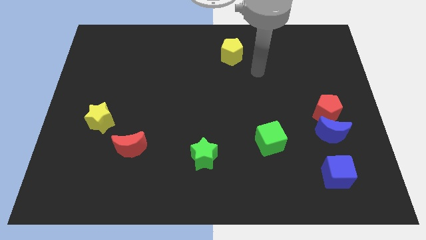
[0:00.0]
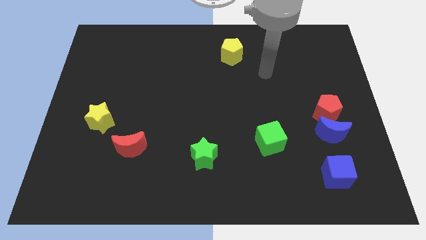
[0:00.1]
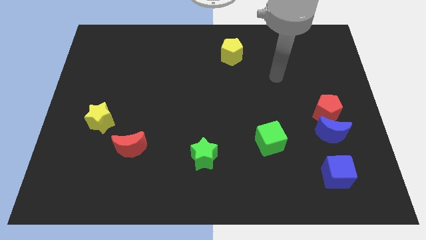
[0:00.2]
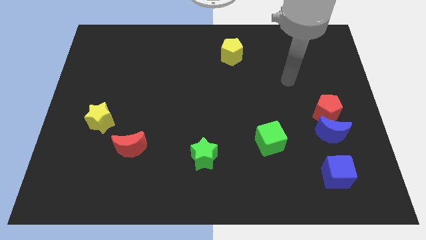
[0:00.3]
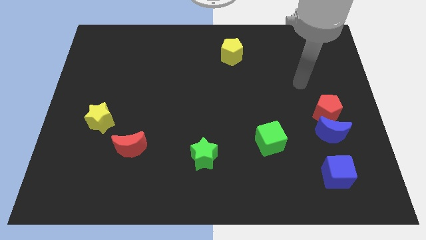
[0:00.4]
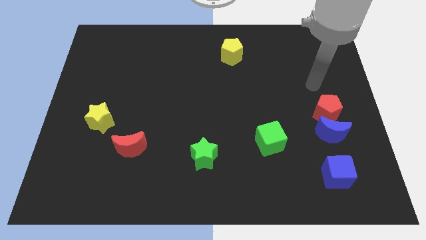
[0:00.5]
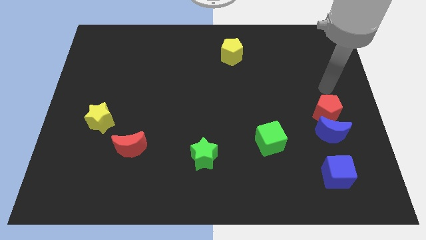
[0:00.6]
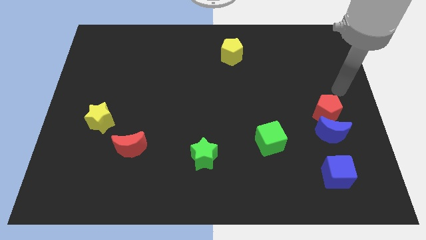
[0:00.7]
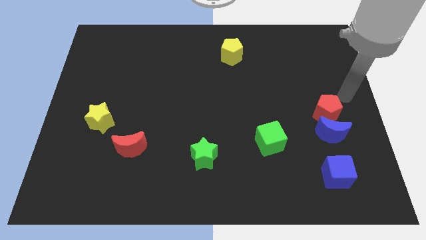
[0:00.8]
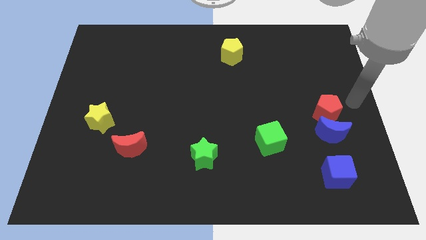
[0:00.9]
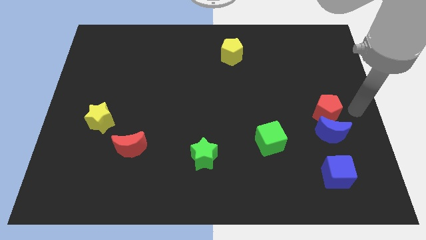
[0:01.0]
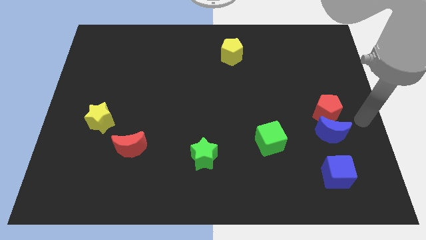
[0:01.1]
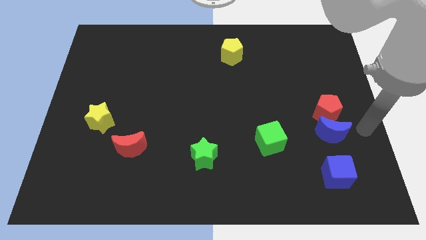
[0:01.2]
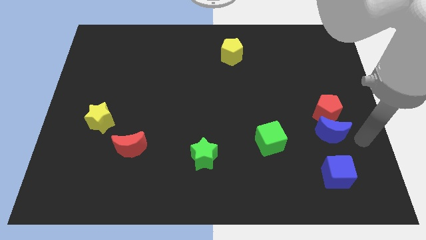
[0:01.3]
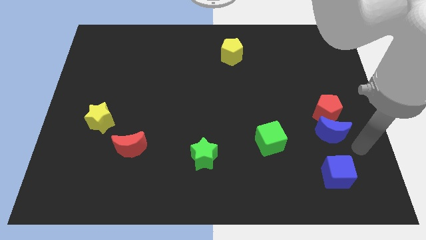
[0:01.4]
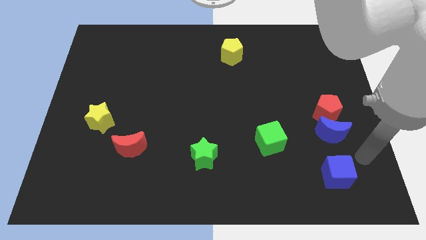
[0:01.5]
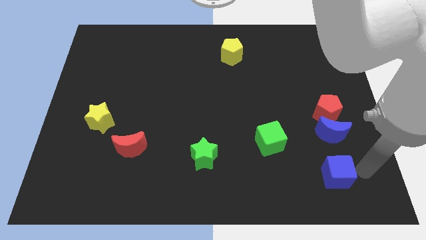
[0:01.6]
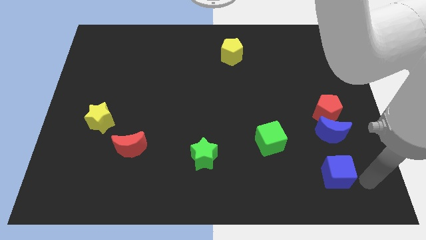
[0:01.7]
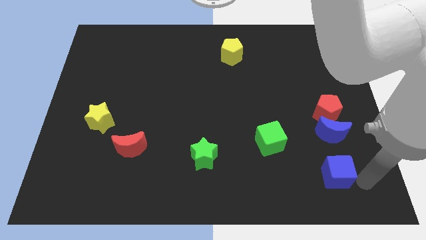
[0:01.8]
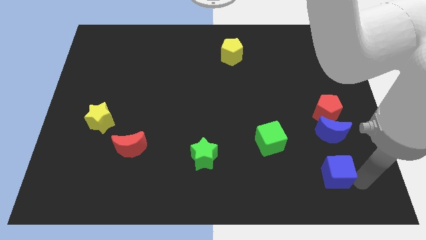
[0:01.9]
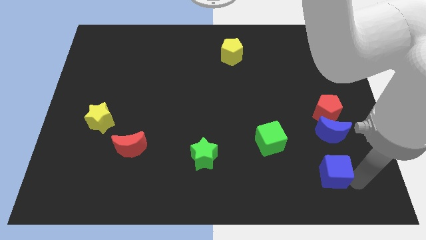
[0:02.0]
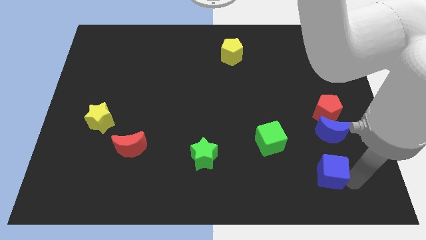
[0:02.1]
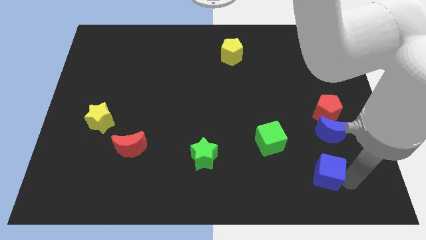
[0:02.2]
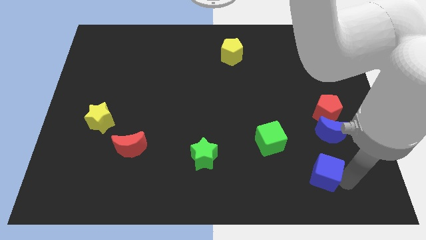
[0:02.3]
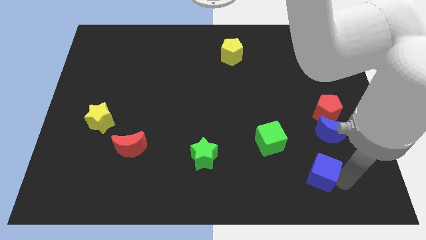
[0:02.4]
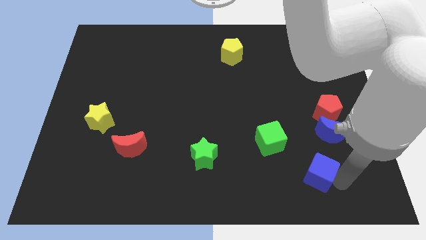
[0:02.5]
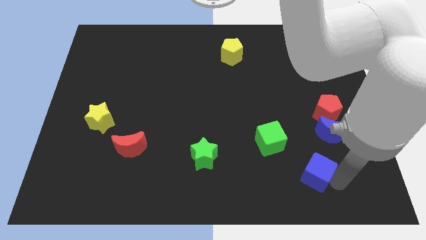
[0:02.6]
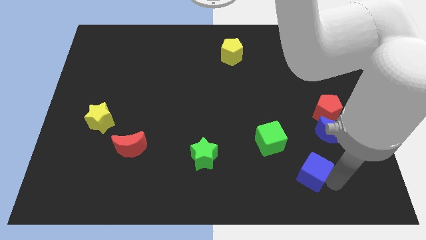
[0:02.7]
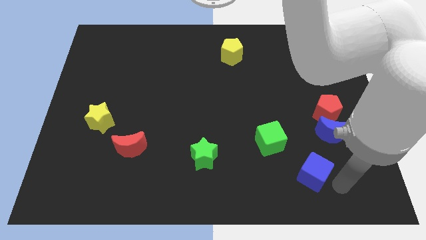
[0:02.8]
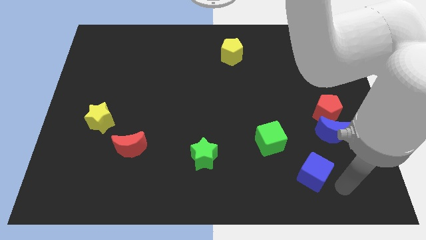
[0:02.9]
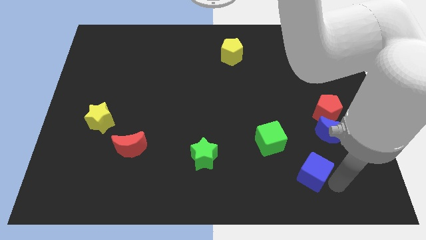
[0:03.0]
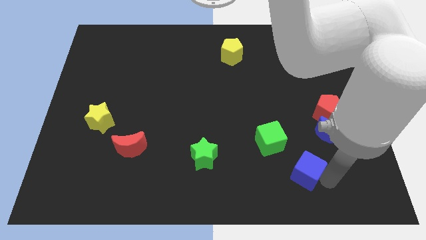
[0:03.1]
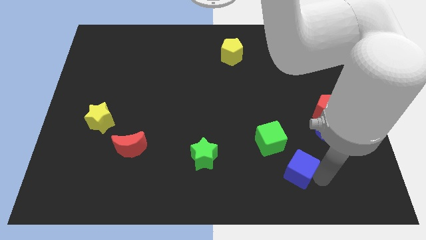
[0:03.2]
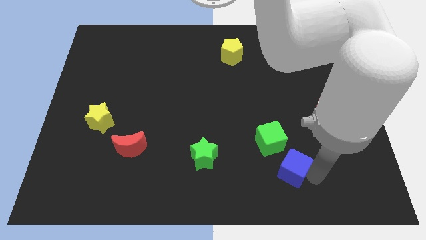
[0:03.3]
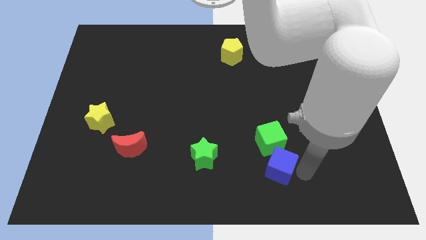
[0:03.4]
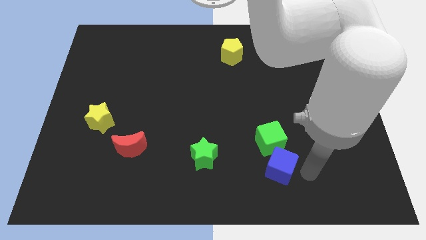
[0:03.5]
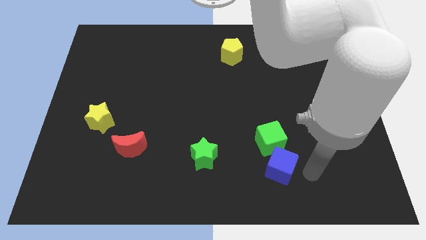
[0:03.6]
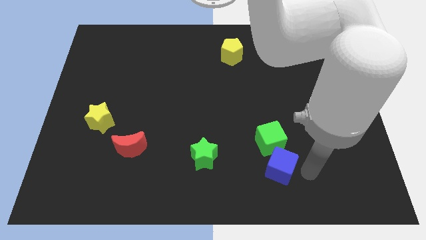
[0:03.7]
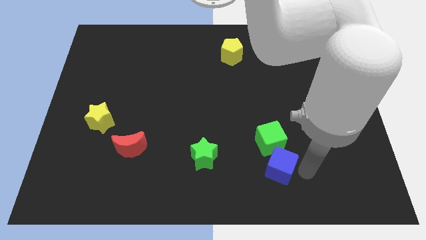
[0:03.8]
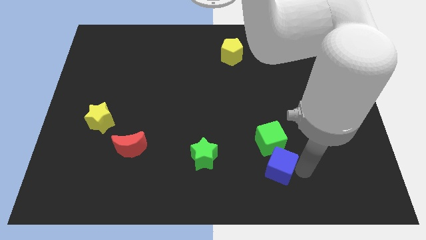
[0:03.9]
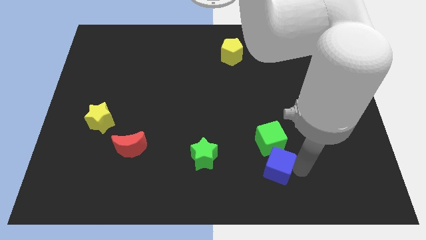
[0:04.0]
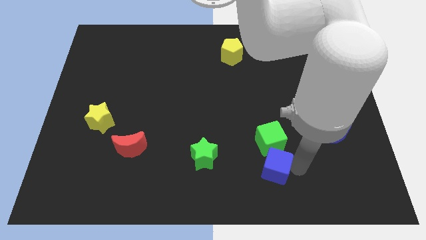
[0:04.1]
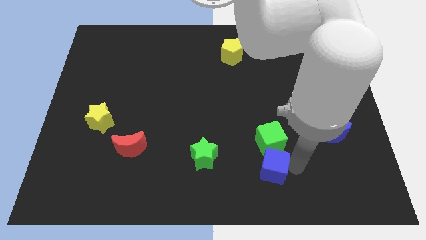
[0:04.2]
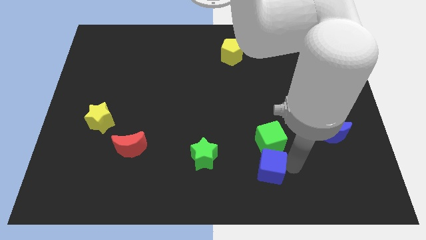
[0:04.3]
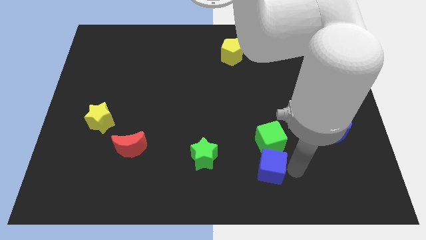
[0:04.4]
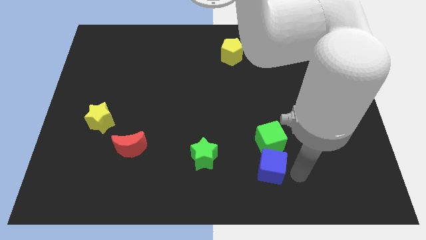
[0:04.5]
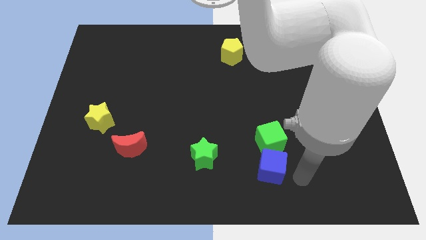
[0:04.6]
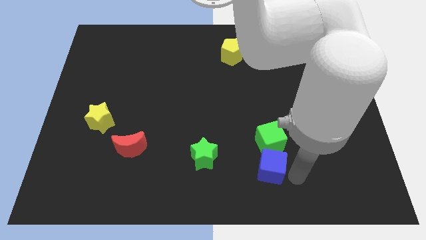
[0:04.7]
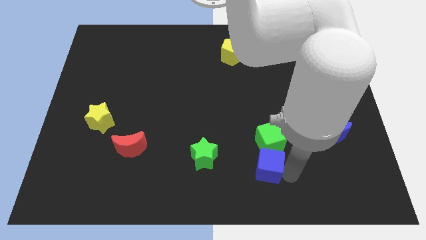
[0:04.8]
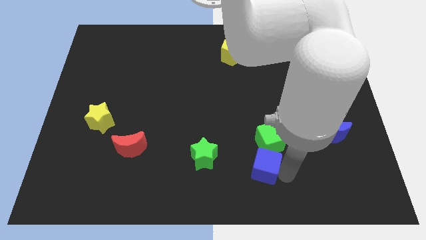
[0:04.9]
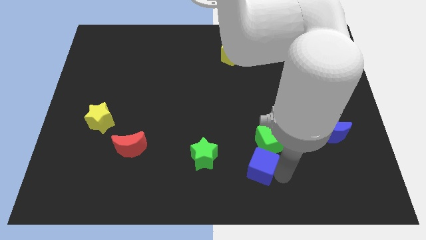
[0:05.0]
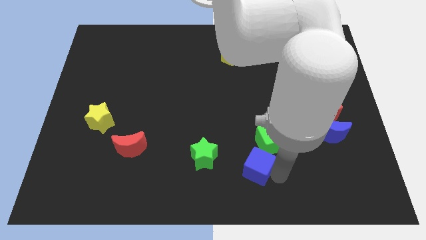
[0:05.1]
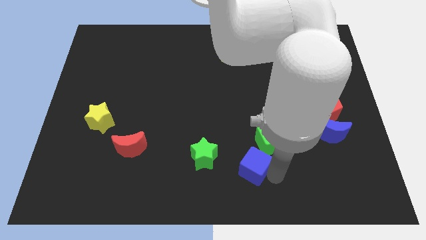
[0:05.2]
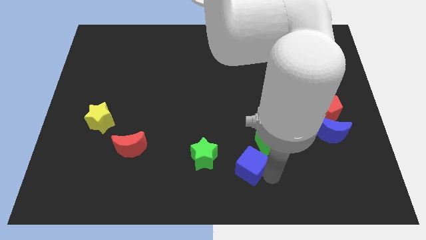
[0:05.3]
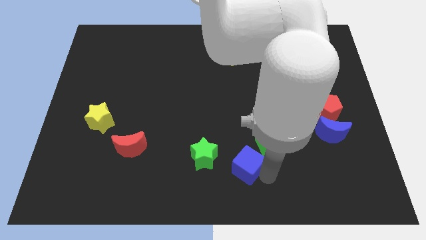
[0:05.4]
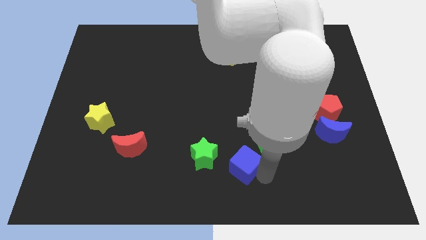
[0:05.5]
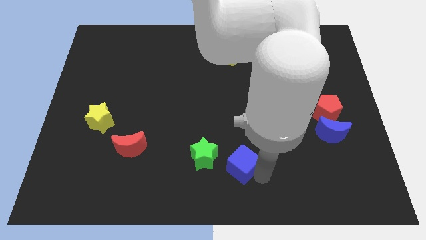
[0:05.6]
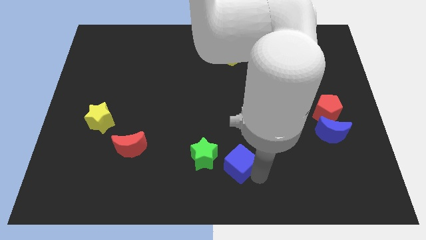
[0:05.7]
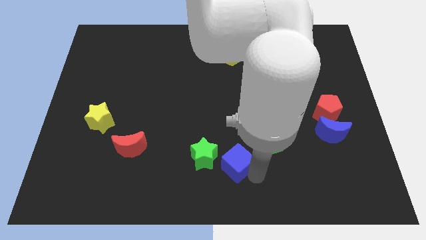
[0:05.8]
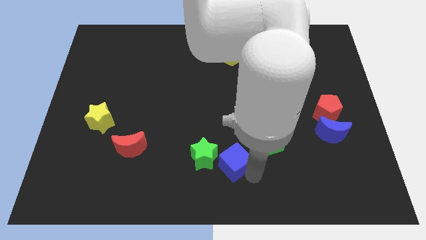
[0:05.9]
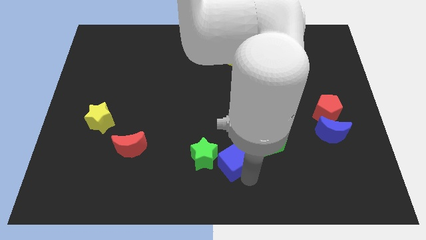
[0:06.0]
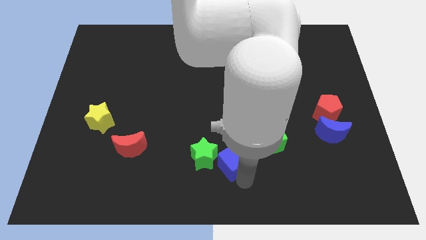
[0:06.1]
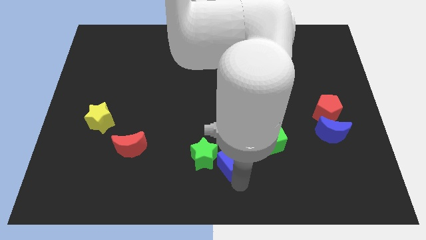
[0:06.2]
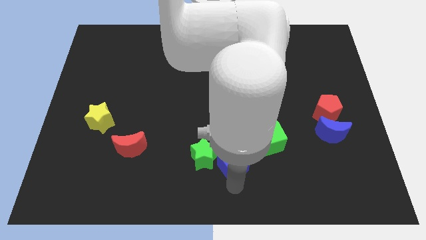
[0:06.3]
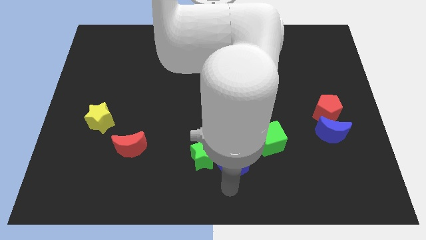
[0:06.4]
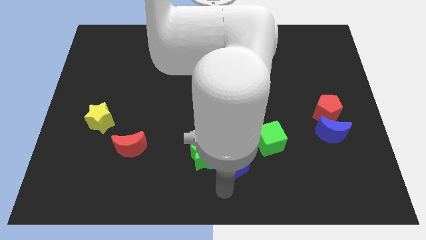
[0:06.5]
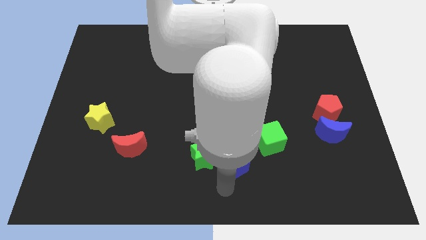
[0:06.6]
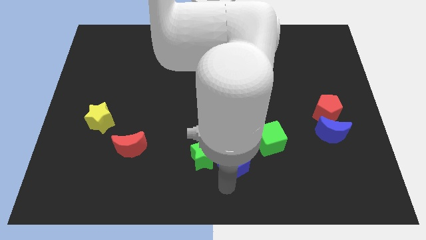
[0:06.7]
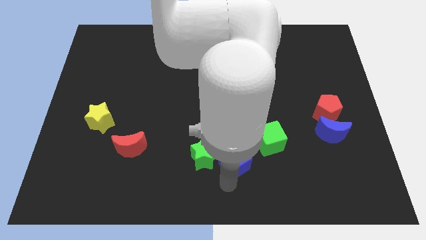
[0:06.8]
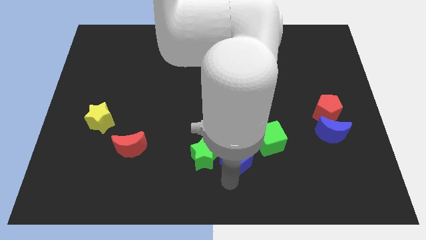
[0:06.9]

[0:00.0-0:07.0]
move the blue cube to the top right side of the green star

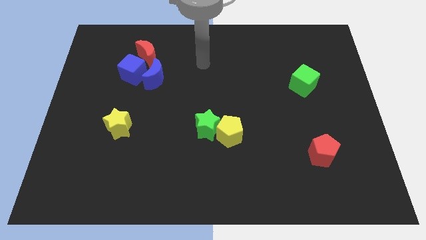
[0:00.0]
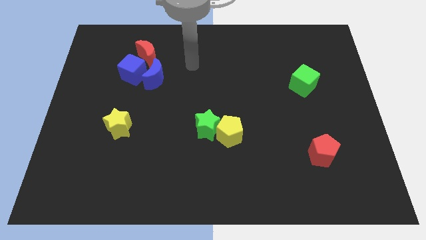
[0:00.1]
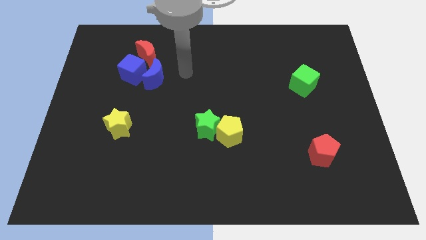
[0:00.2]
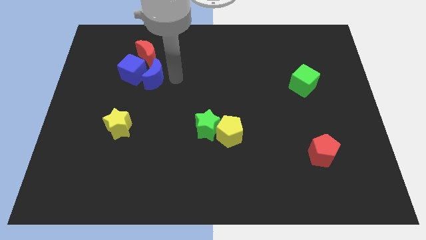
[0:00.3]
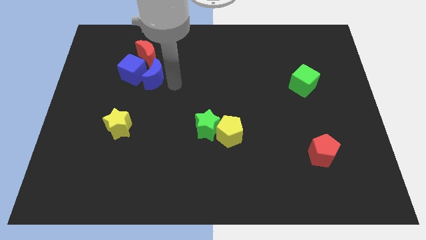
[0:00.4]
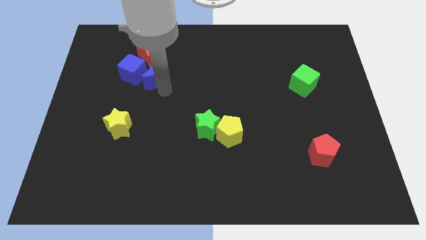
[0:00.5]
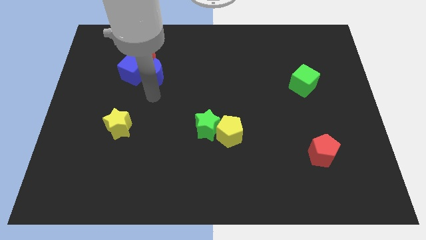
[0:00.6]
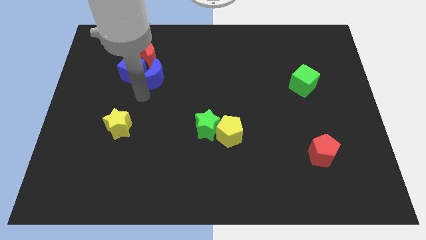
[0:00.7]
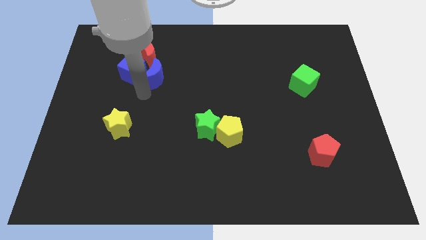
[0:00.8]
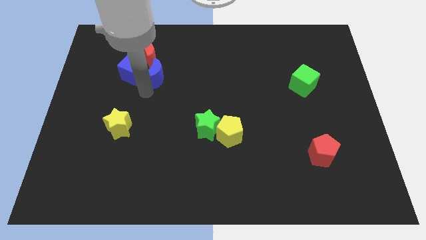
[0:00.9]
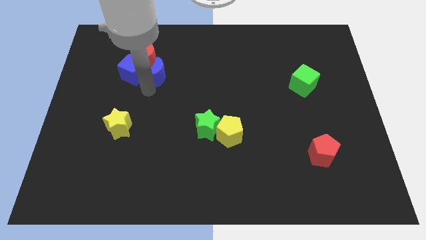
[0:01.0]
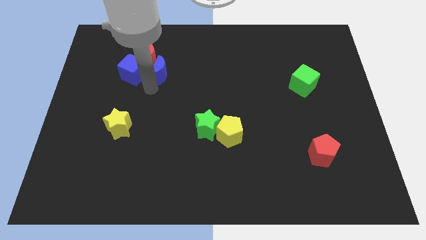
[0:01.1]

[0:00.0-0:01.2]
move the blue moon diagonally up and to the right of the blue cube
